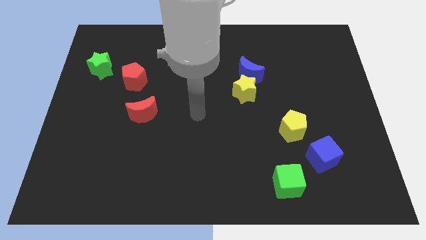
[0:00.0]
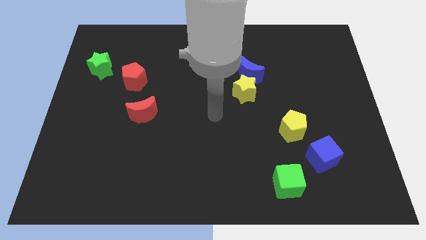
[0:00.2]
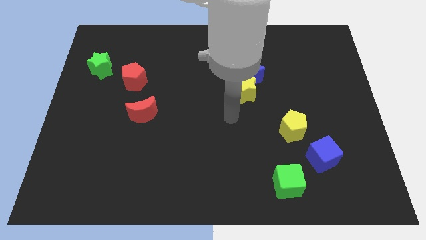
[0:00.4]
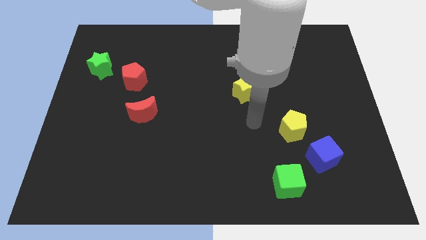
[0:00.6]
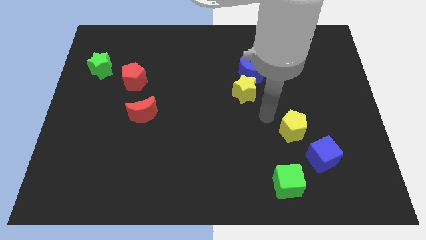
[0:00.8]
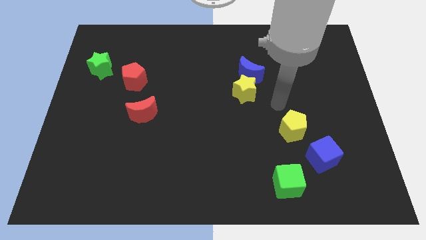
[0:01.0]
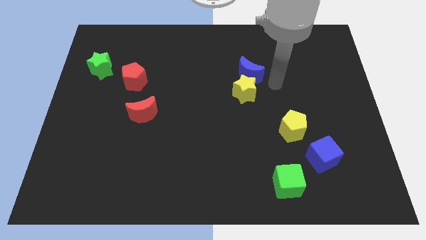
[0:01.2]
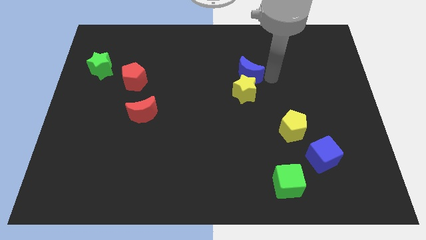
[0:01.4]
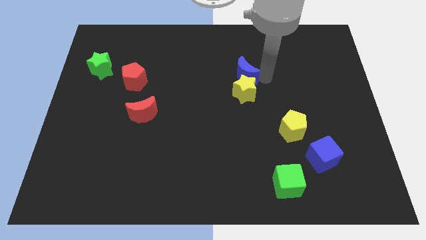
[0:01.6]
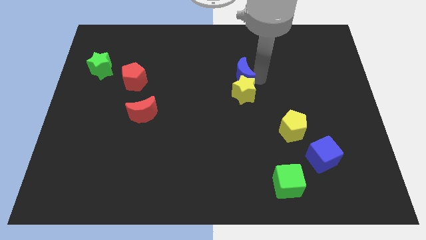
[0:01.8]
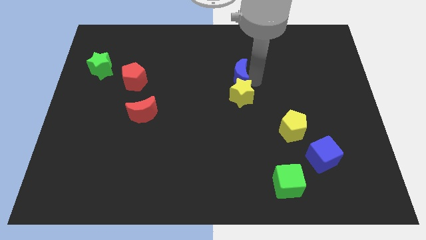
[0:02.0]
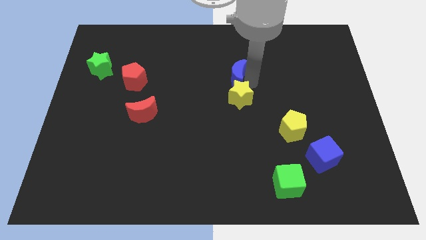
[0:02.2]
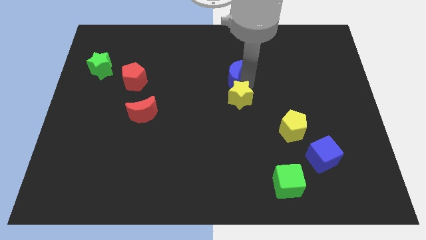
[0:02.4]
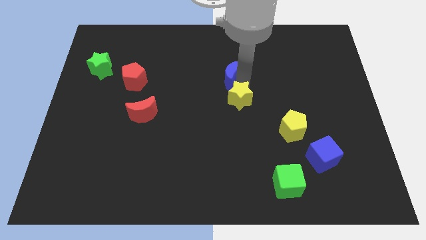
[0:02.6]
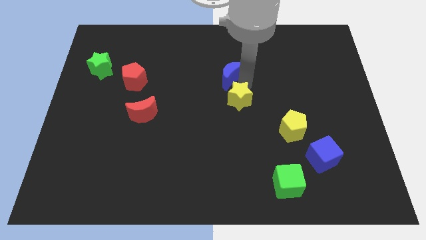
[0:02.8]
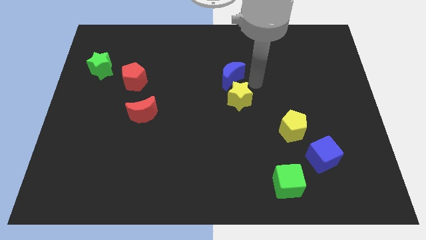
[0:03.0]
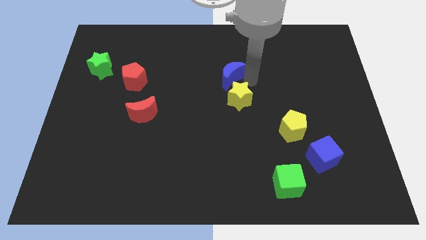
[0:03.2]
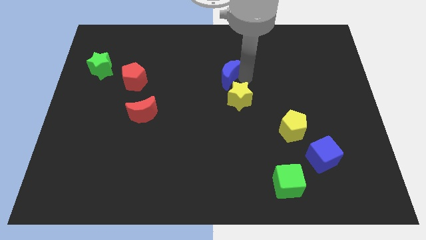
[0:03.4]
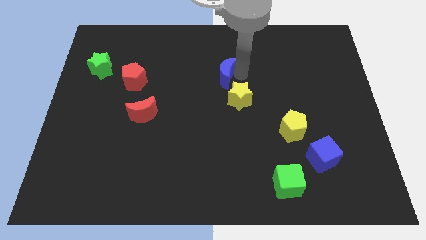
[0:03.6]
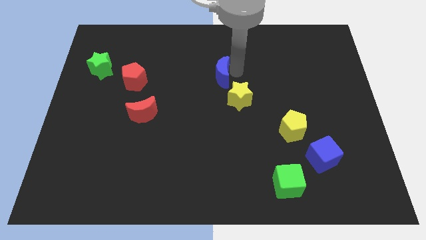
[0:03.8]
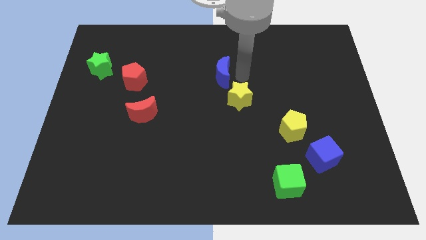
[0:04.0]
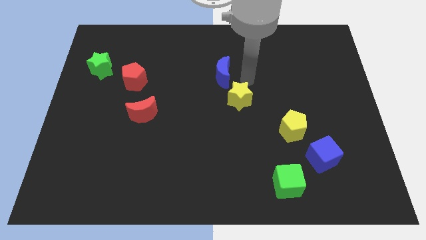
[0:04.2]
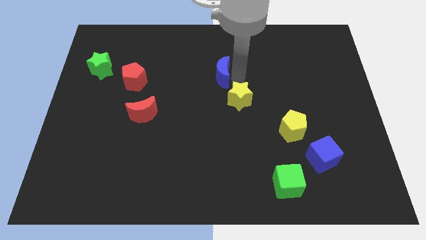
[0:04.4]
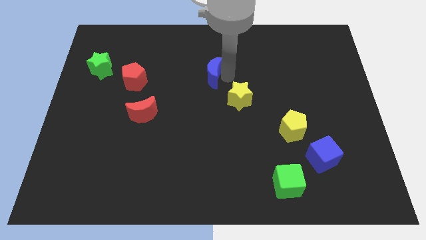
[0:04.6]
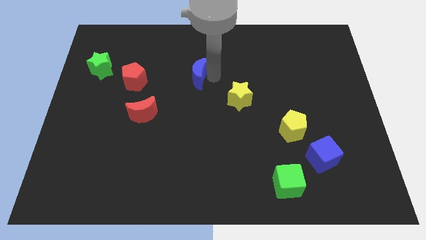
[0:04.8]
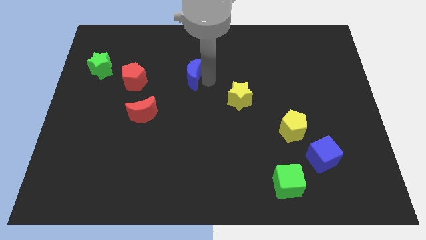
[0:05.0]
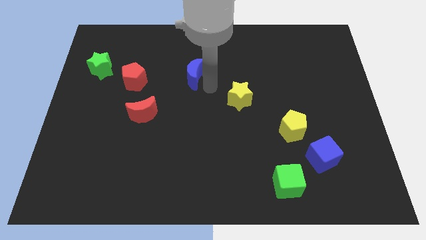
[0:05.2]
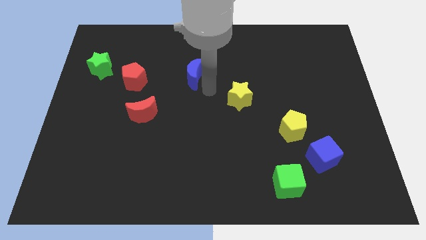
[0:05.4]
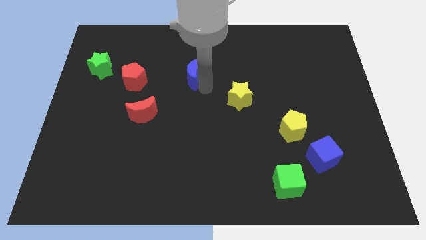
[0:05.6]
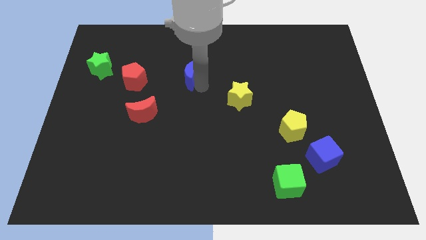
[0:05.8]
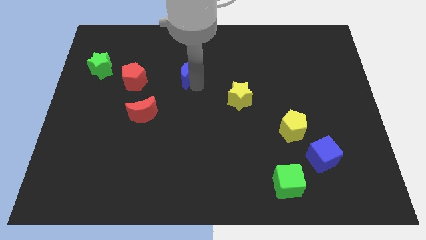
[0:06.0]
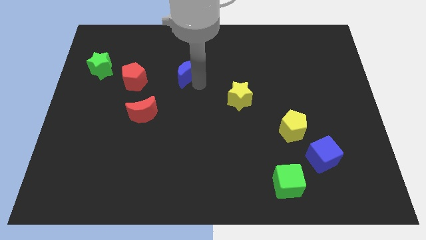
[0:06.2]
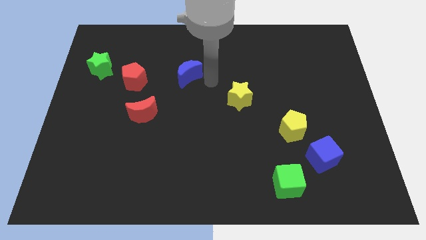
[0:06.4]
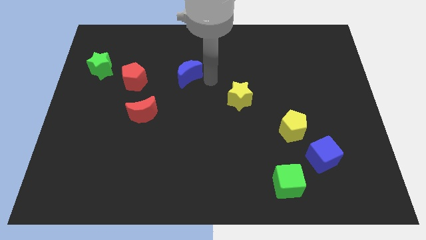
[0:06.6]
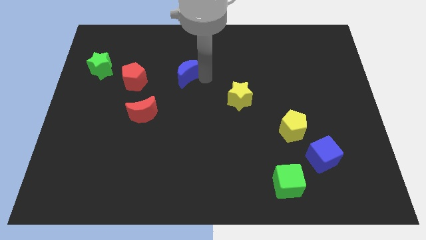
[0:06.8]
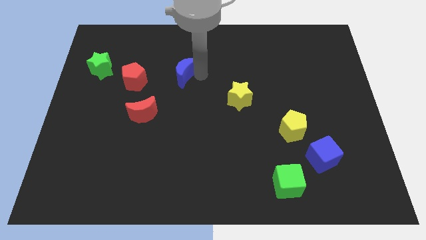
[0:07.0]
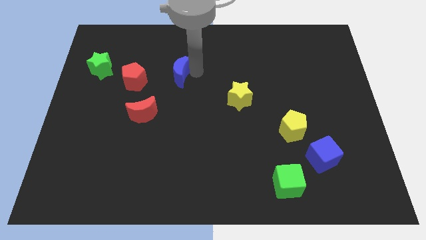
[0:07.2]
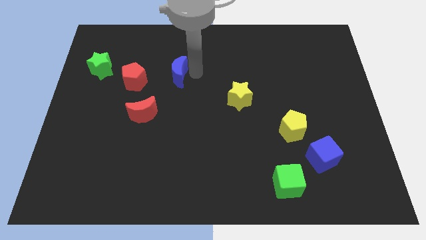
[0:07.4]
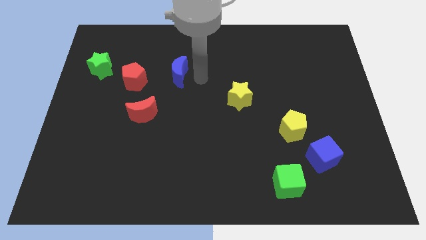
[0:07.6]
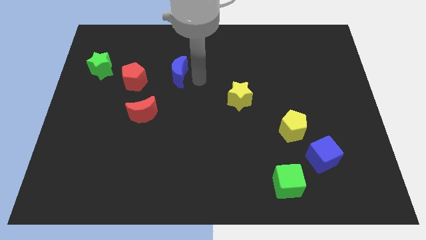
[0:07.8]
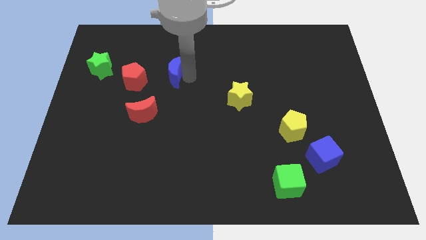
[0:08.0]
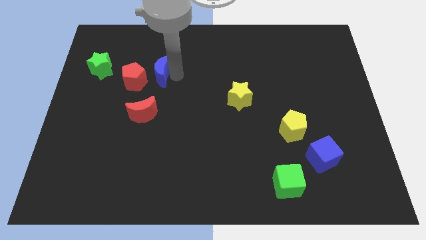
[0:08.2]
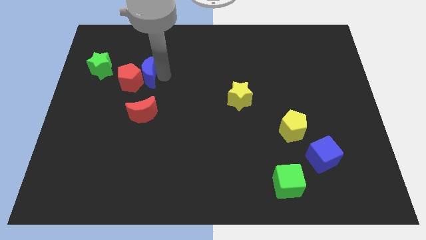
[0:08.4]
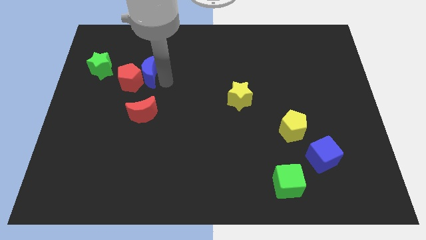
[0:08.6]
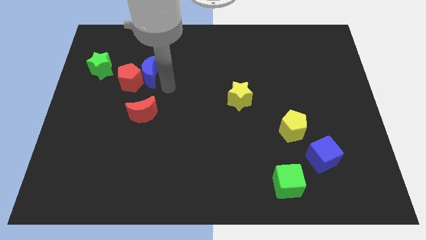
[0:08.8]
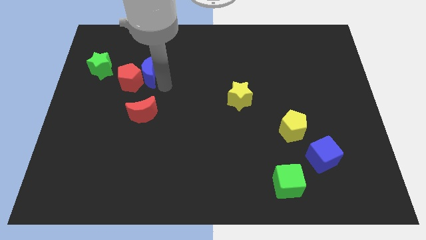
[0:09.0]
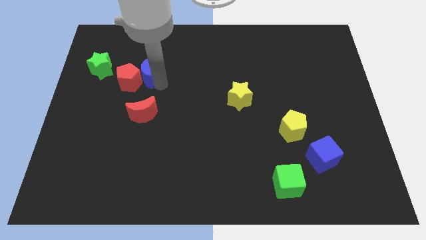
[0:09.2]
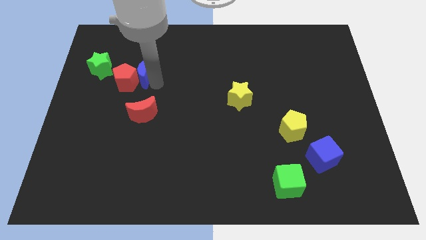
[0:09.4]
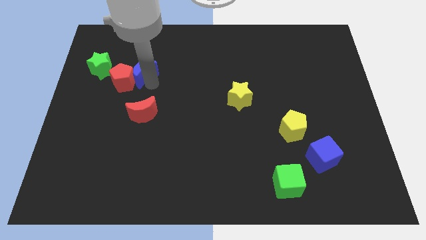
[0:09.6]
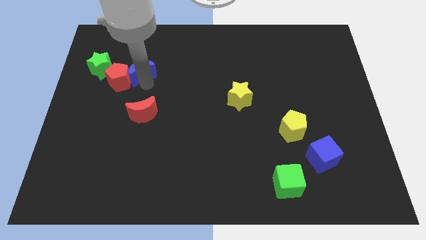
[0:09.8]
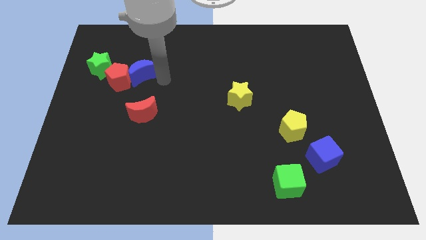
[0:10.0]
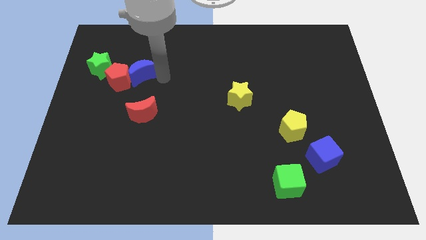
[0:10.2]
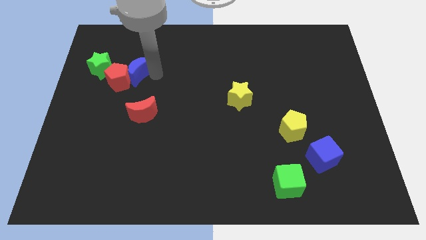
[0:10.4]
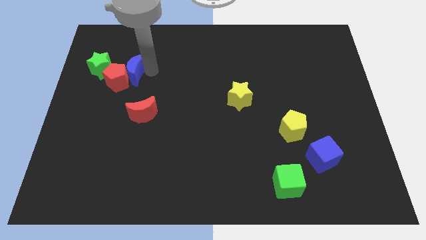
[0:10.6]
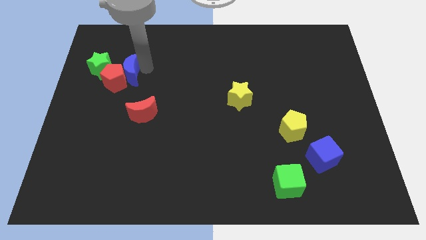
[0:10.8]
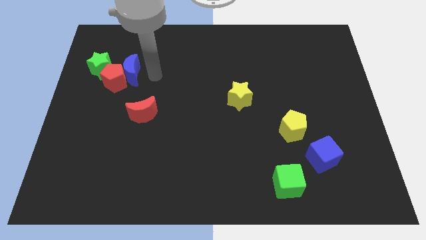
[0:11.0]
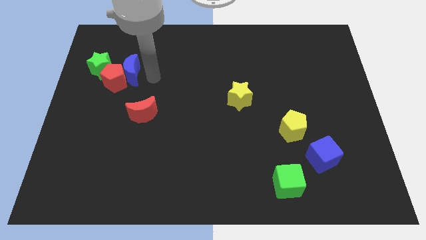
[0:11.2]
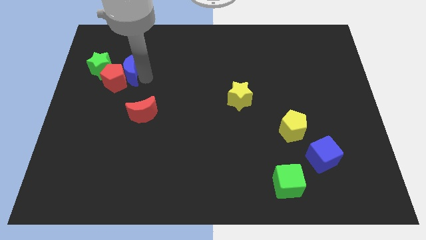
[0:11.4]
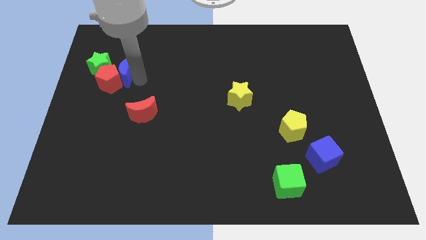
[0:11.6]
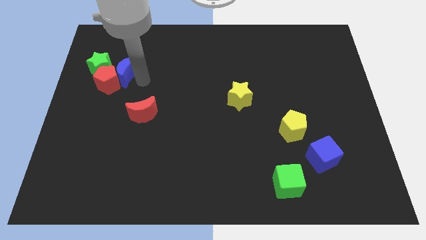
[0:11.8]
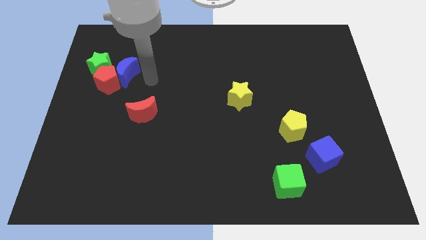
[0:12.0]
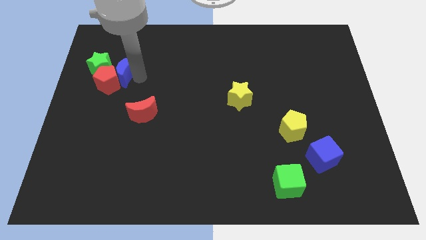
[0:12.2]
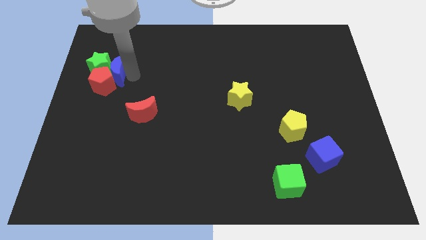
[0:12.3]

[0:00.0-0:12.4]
put the blue moon close to the green star

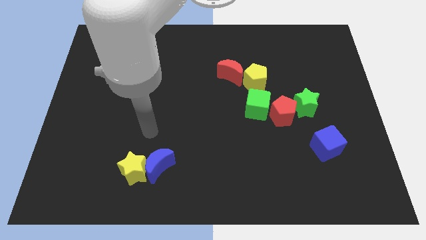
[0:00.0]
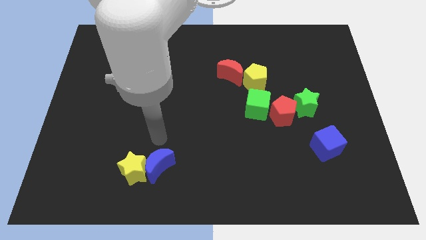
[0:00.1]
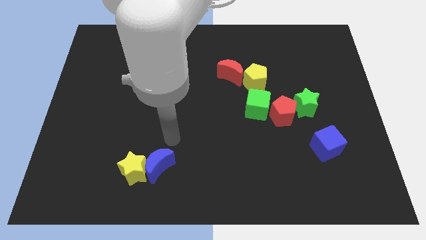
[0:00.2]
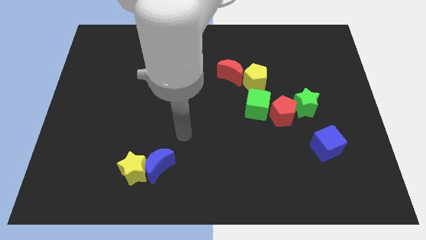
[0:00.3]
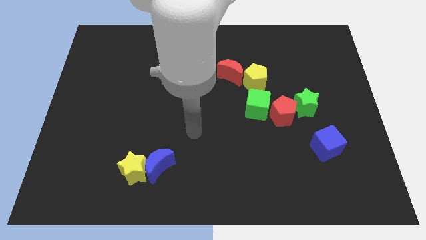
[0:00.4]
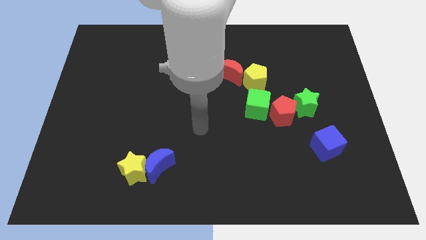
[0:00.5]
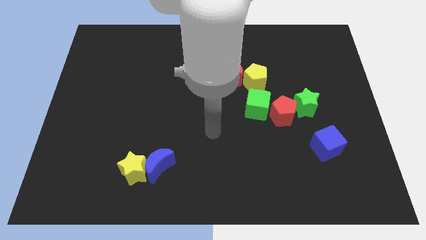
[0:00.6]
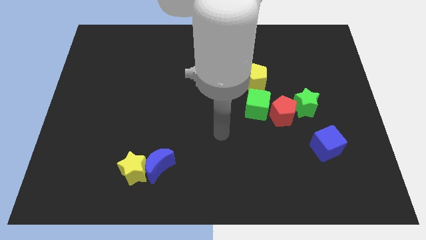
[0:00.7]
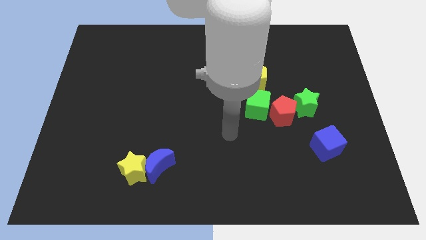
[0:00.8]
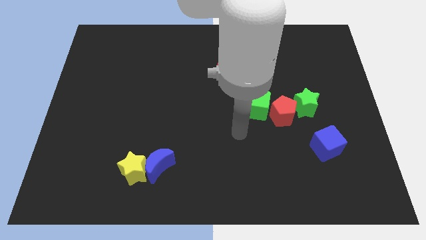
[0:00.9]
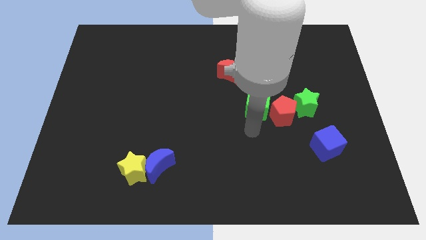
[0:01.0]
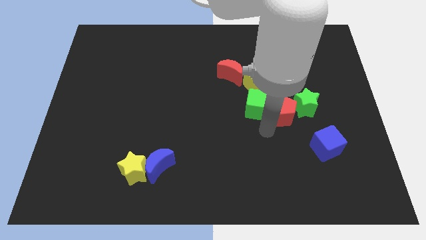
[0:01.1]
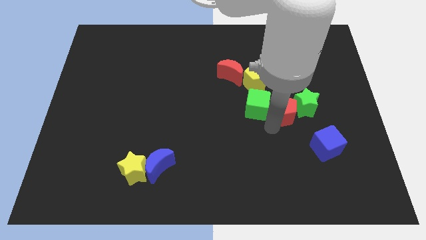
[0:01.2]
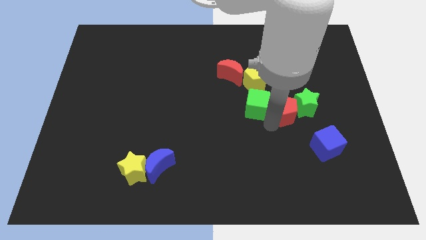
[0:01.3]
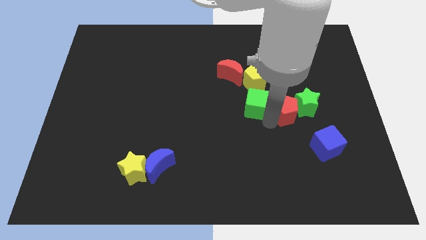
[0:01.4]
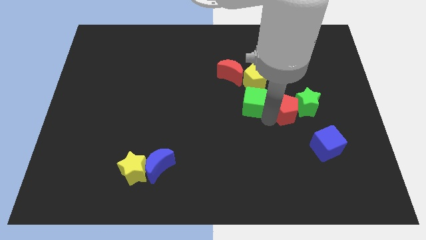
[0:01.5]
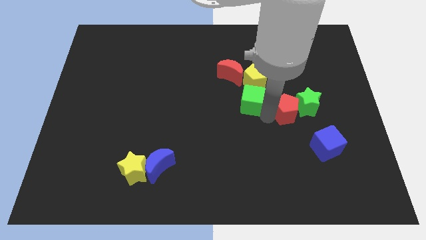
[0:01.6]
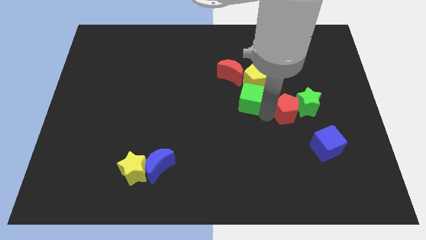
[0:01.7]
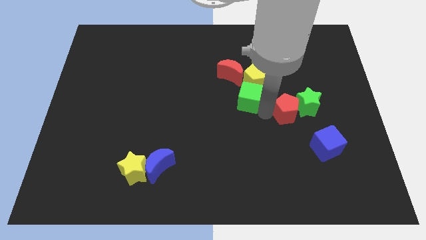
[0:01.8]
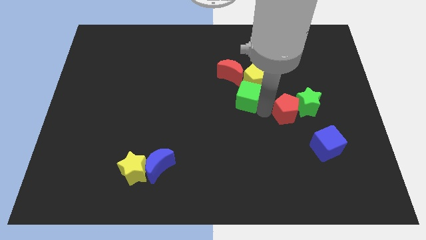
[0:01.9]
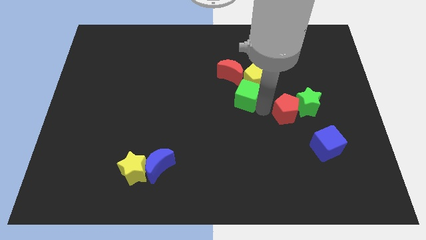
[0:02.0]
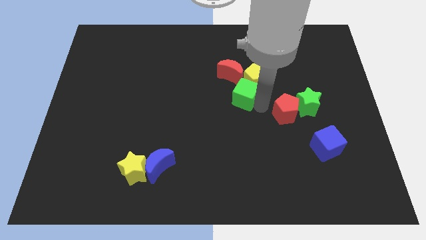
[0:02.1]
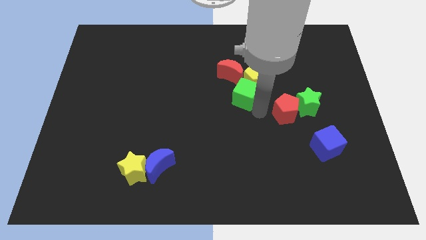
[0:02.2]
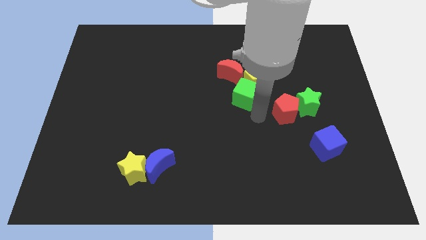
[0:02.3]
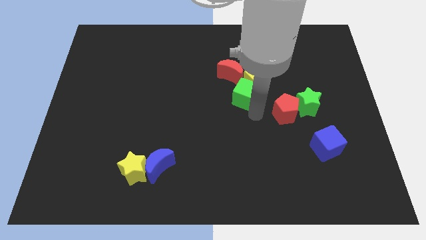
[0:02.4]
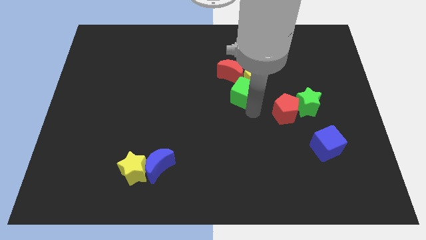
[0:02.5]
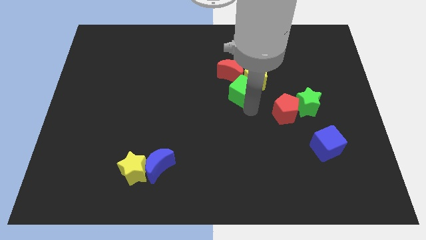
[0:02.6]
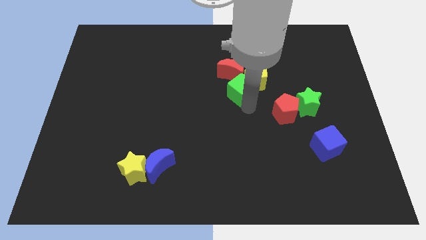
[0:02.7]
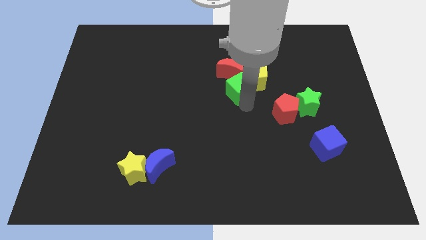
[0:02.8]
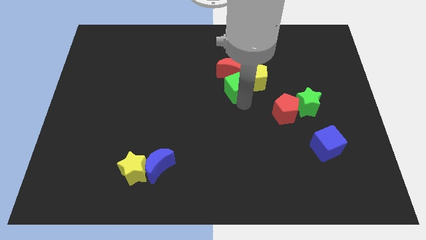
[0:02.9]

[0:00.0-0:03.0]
push the green cube to the red moon
